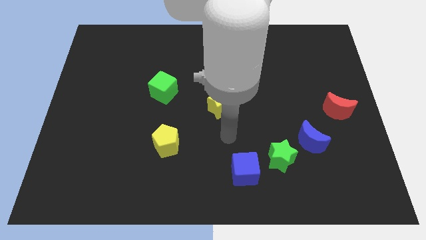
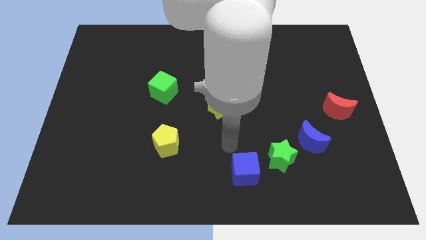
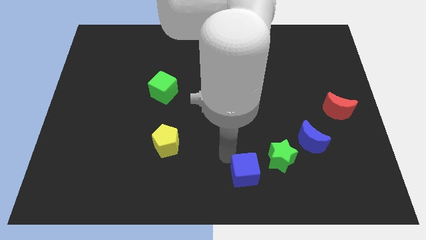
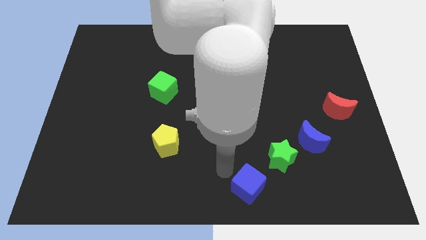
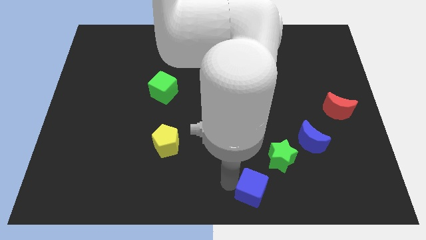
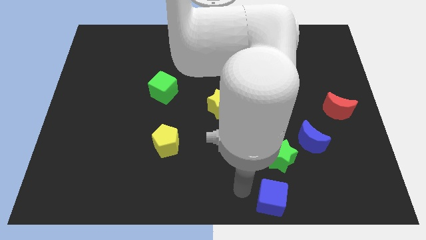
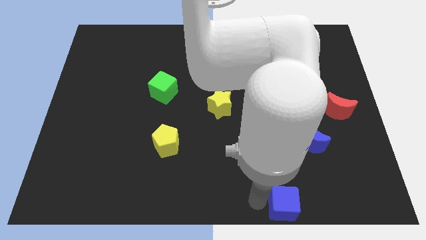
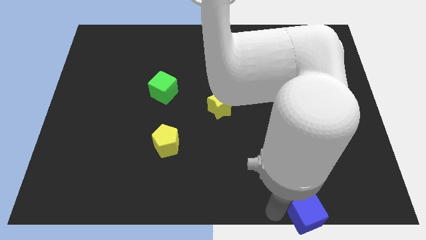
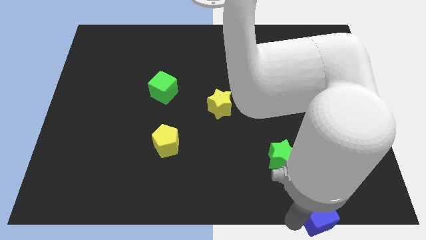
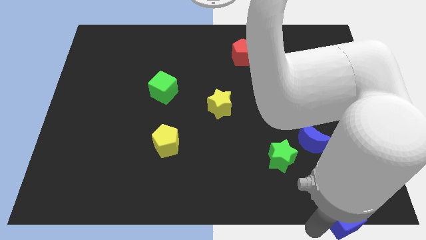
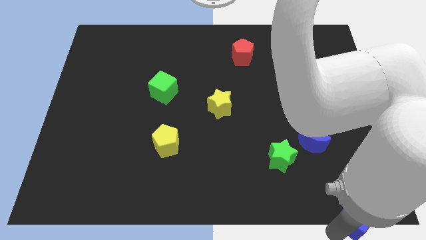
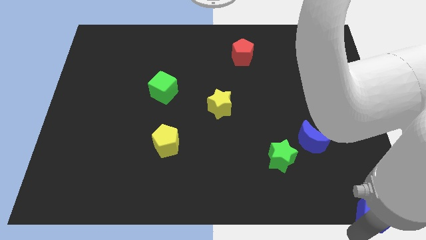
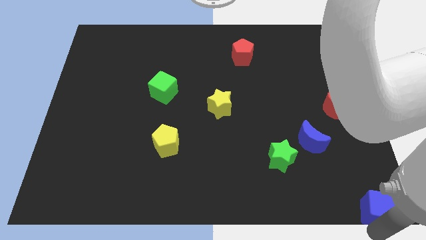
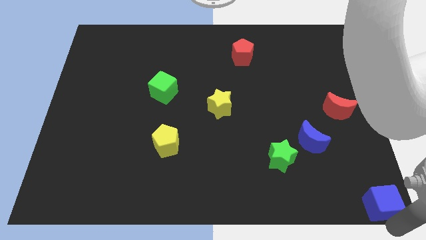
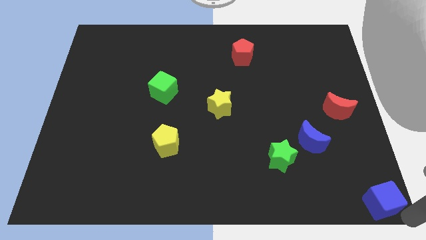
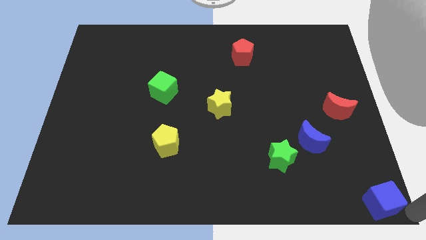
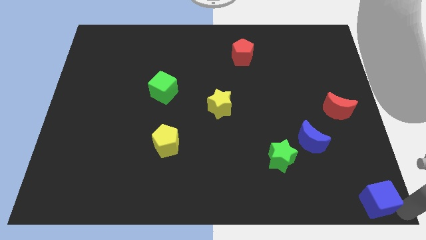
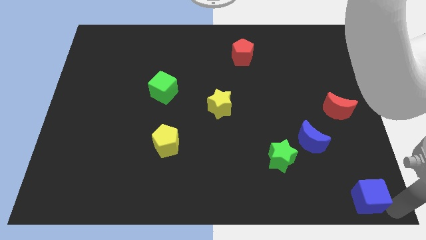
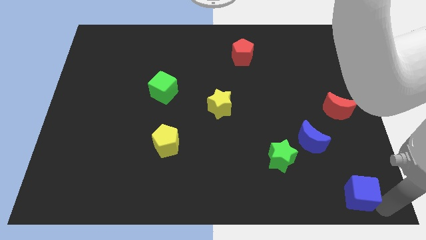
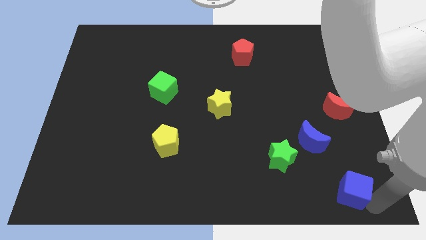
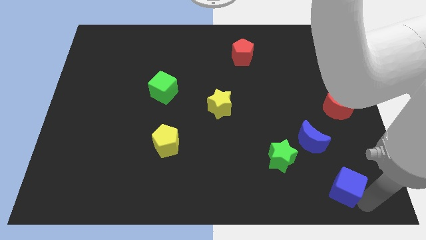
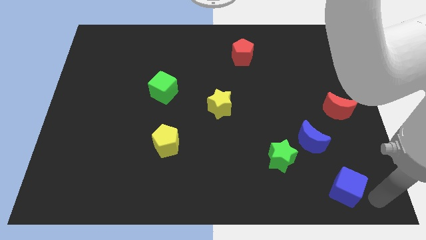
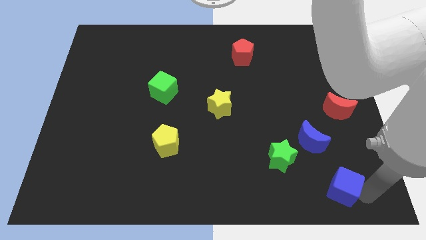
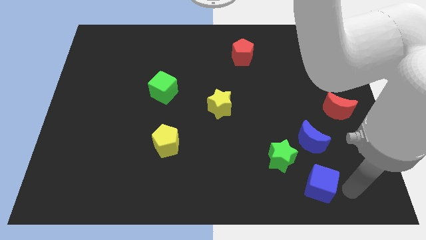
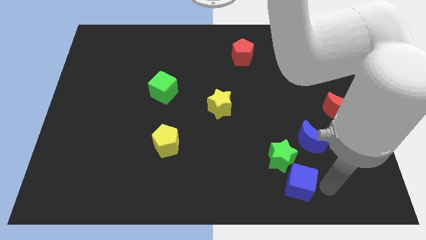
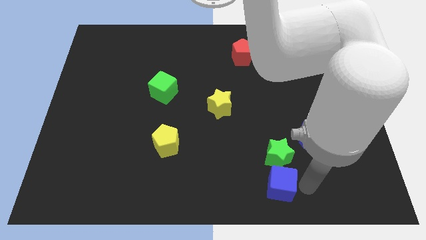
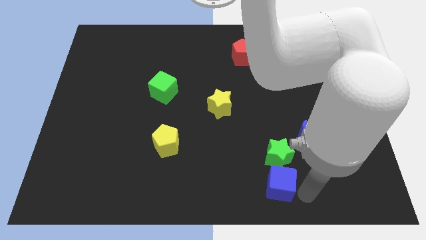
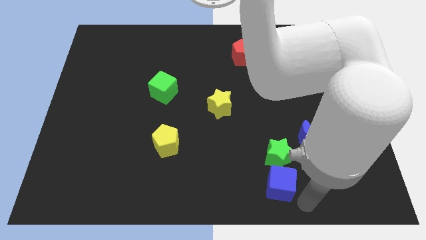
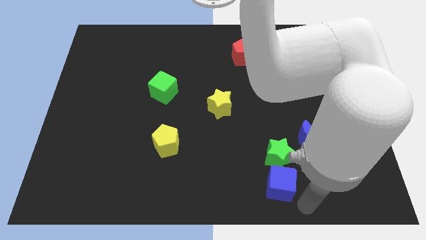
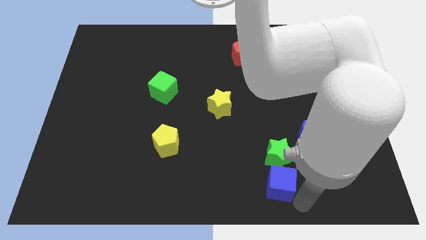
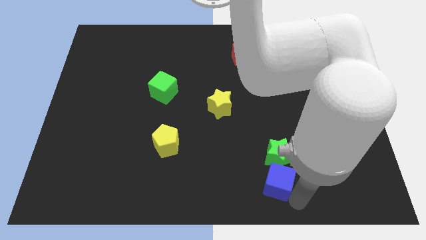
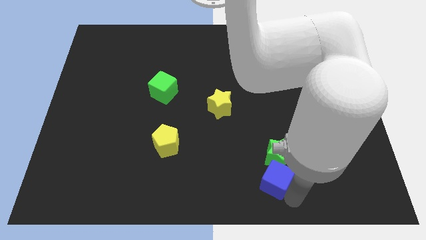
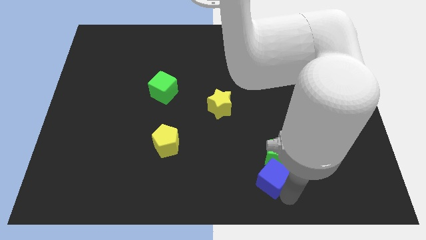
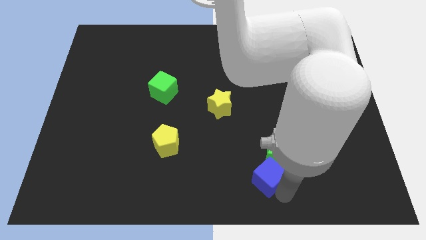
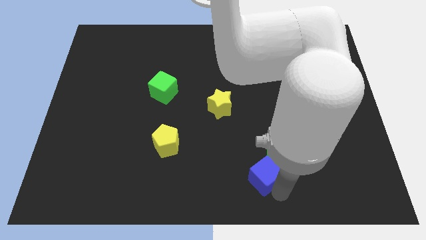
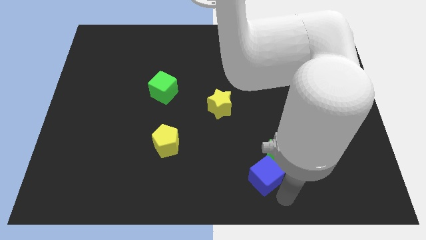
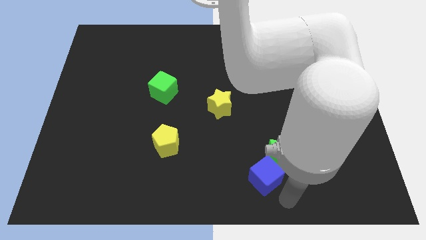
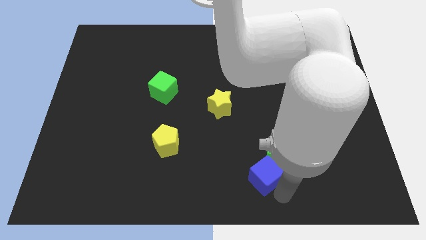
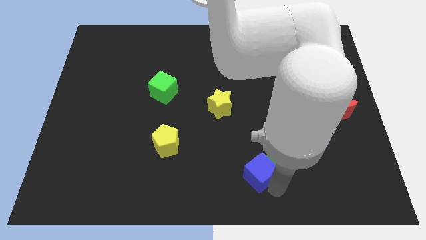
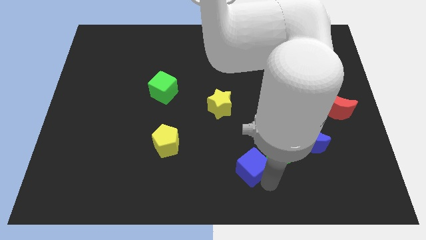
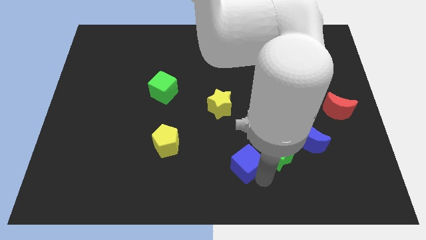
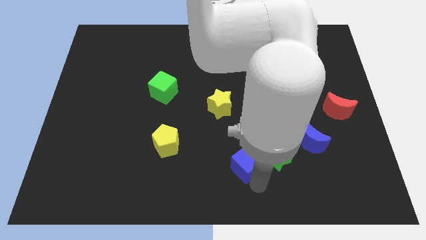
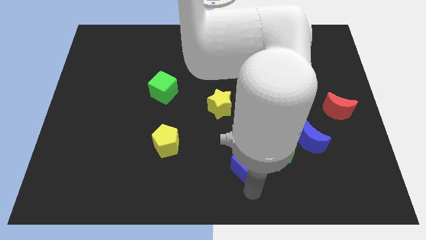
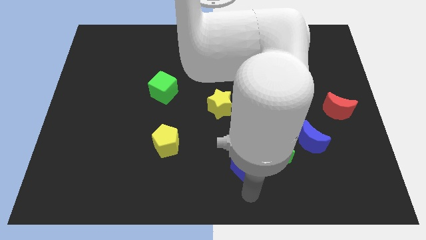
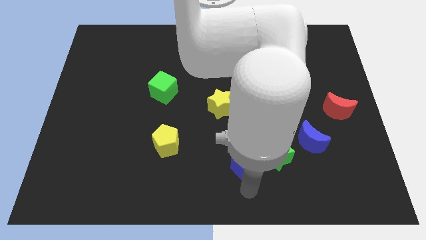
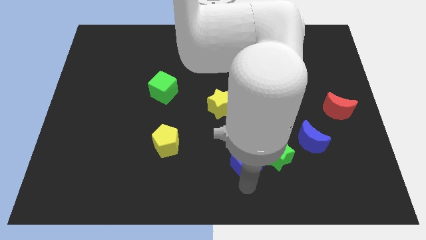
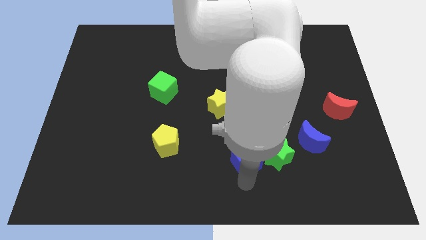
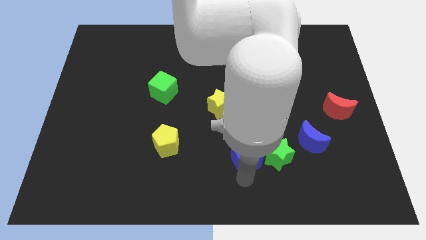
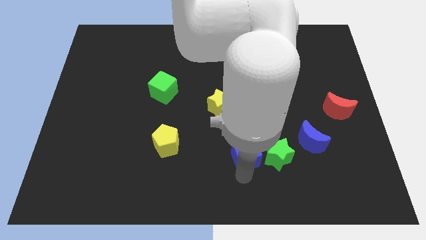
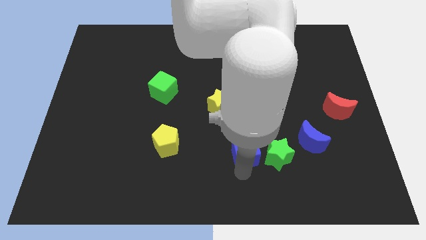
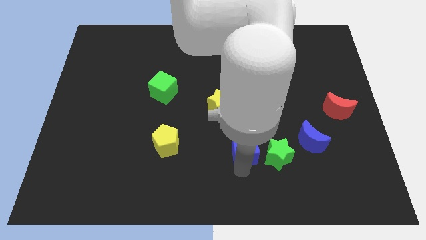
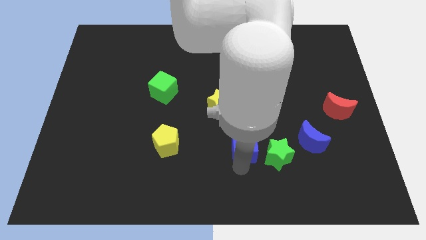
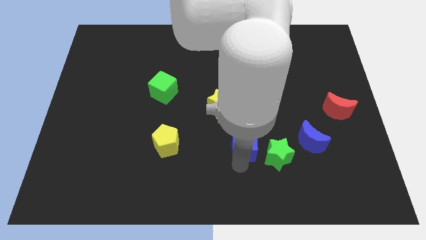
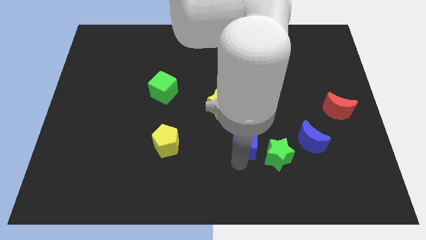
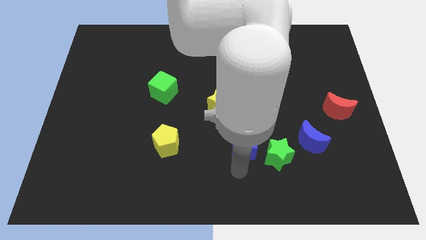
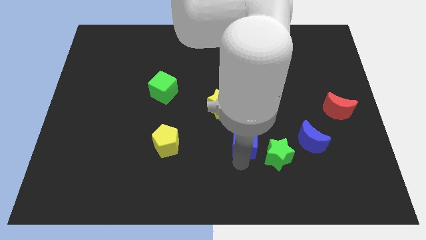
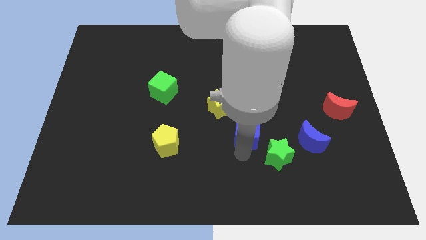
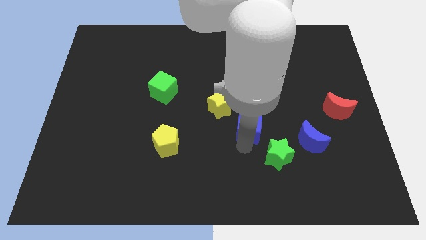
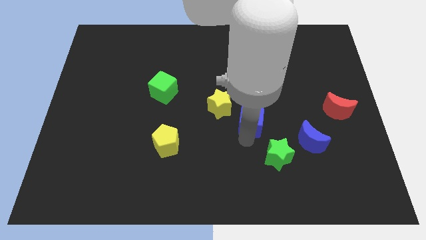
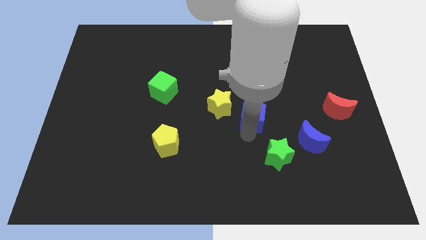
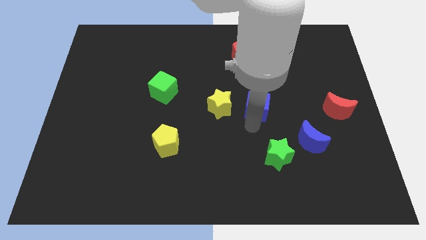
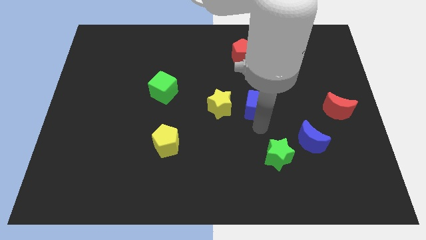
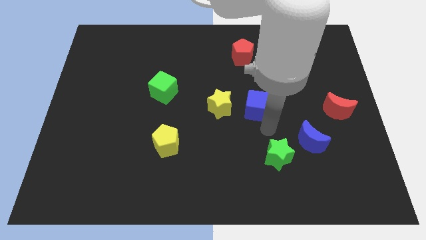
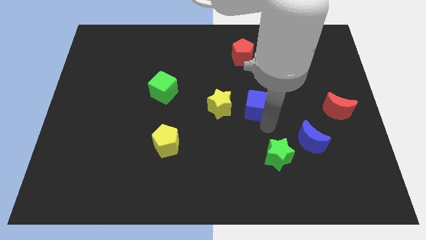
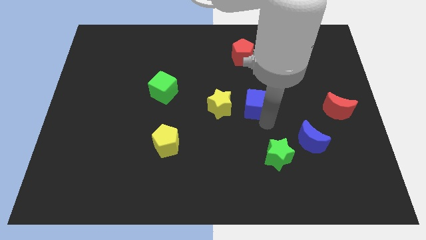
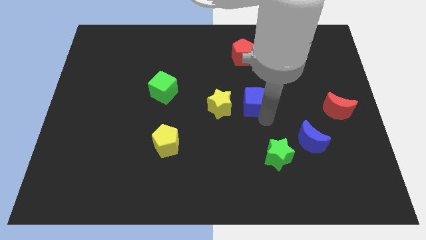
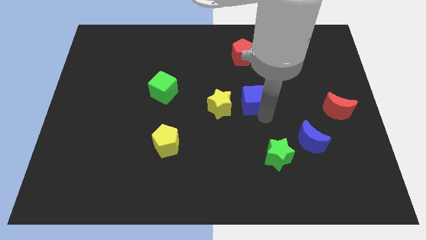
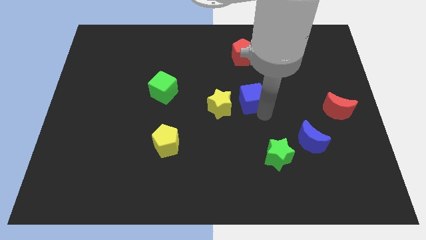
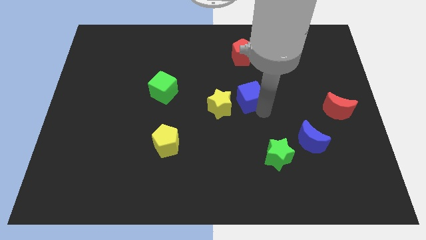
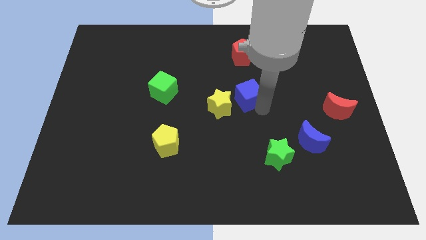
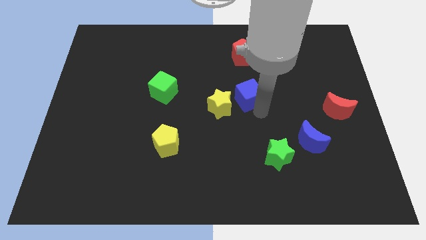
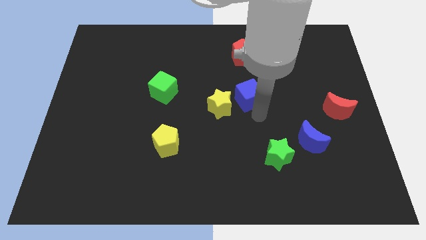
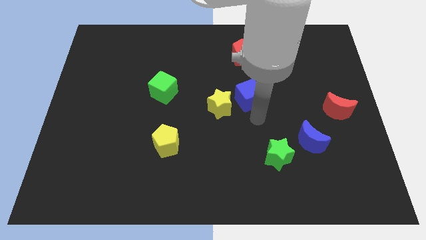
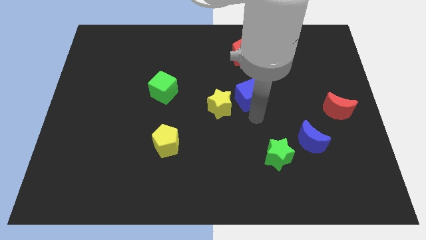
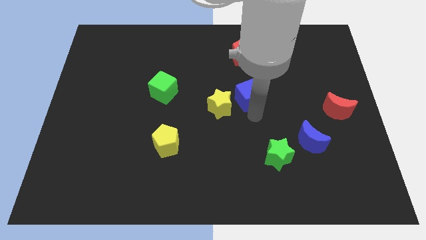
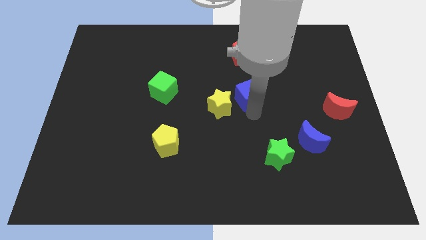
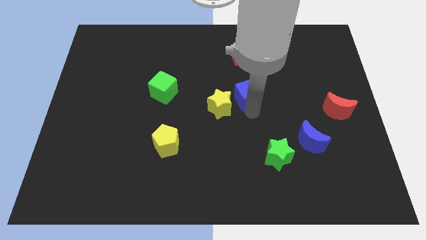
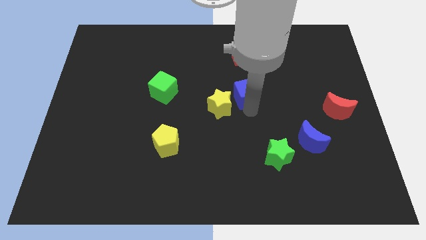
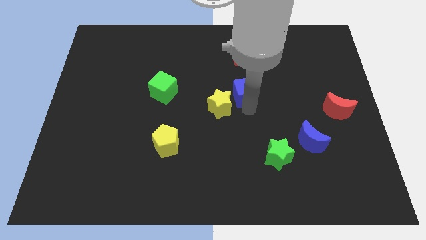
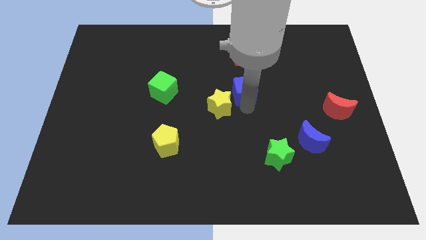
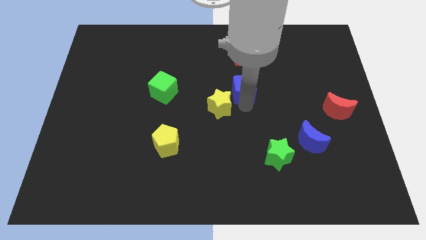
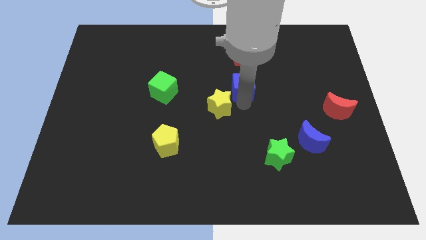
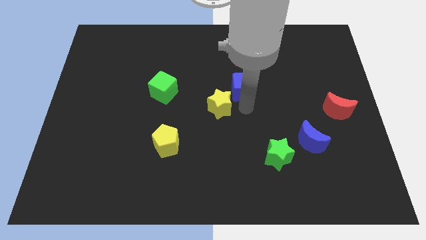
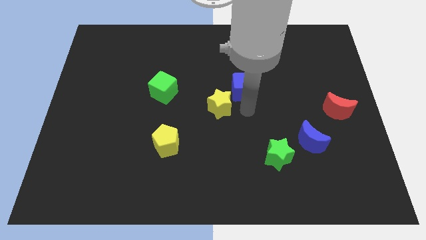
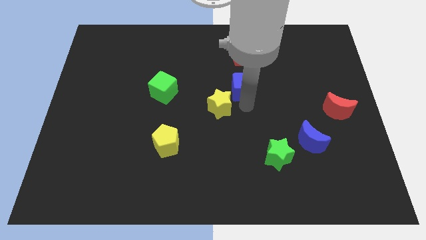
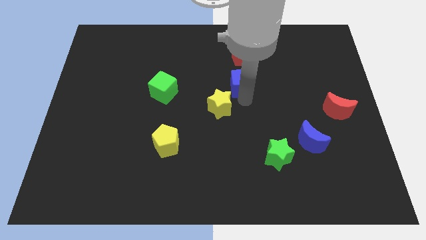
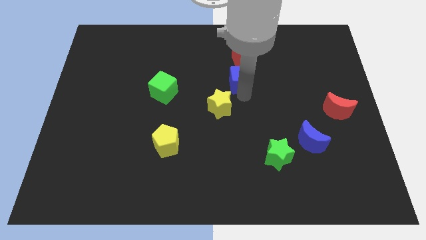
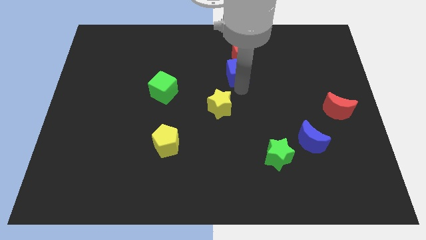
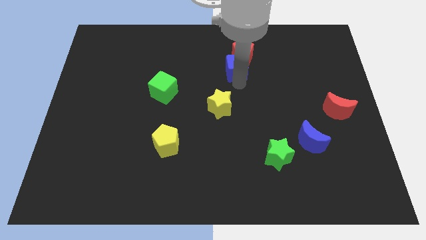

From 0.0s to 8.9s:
push the blue cube to the red pentagon
